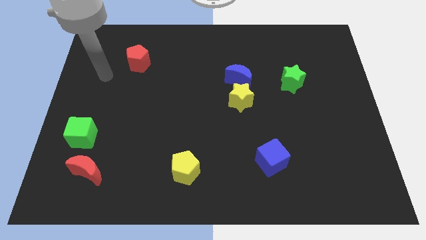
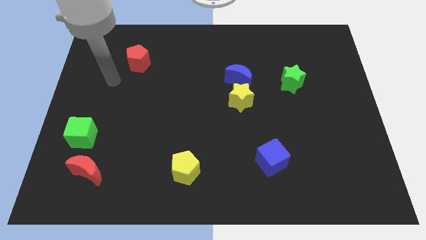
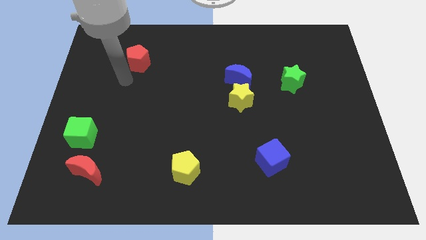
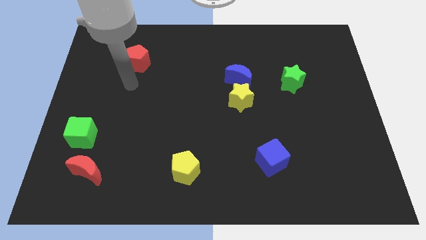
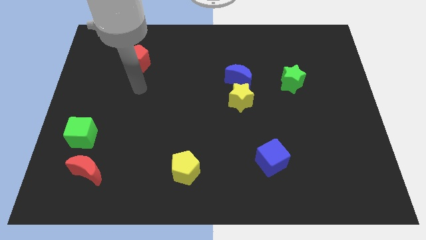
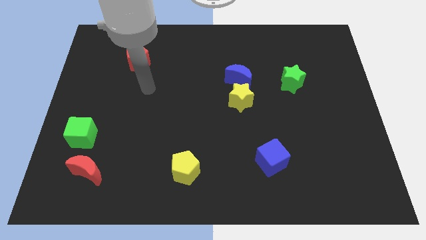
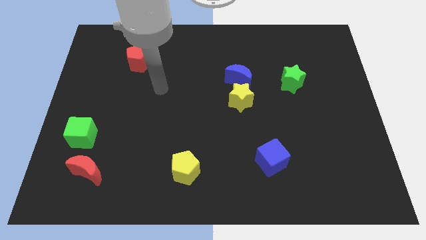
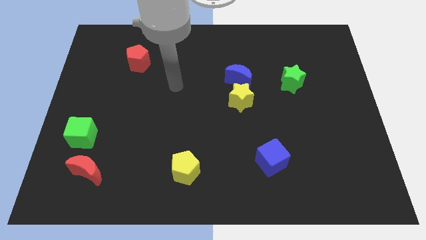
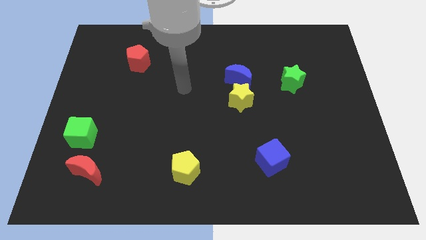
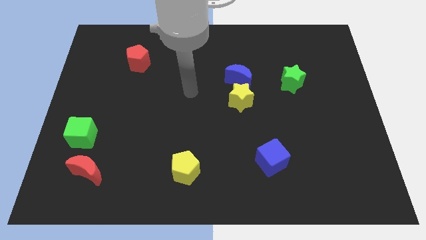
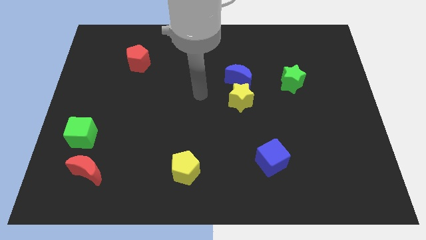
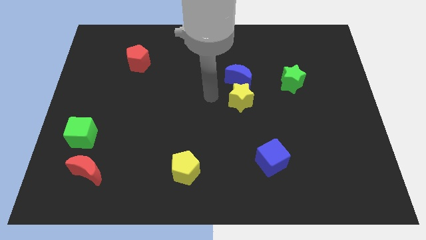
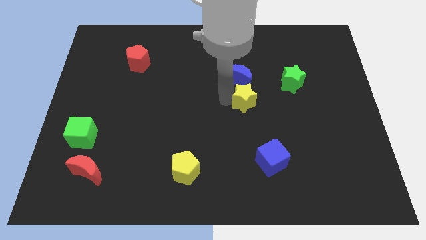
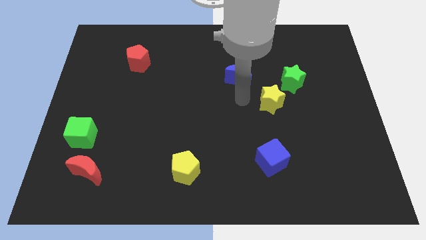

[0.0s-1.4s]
separate the blue moon from the yellow star

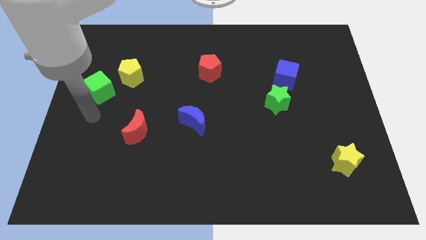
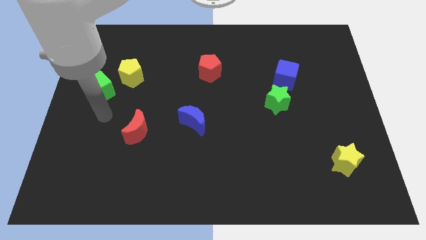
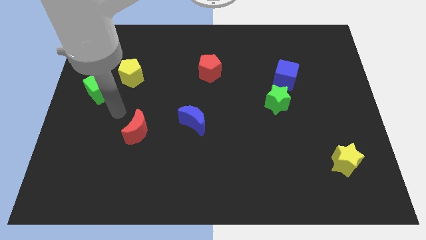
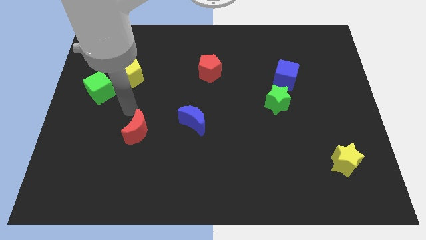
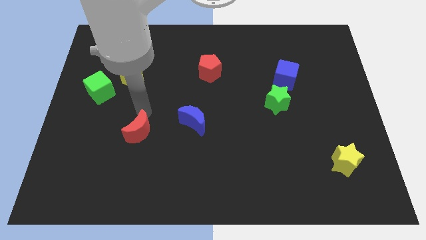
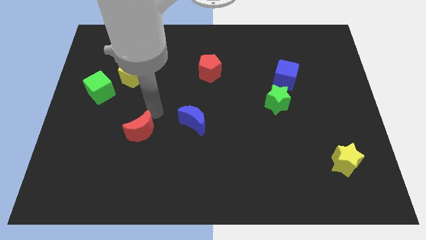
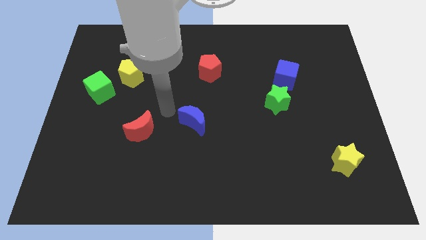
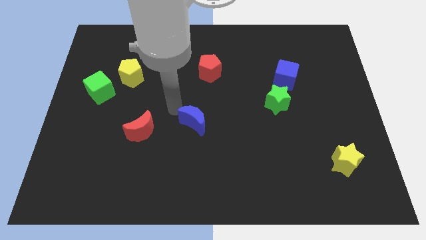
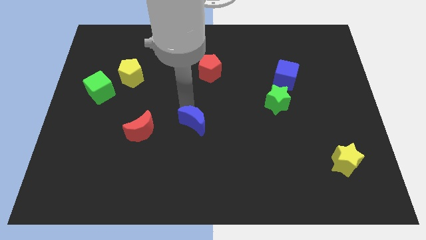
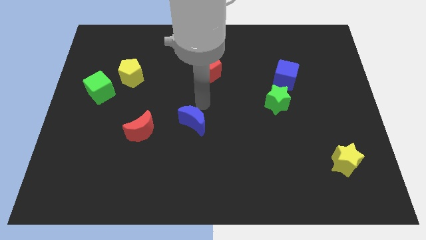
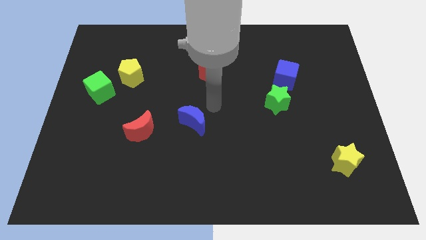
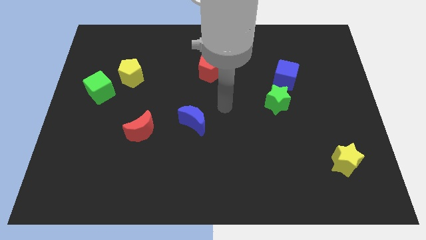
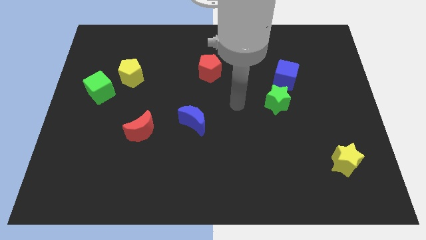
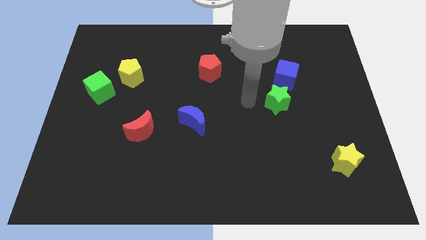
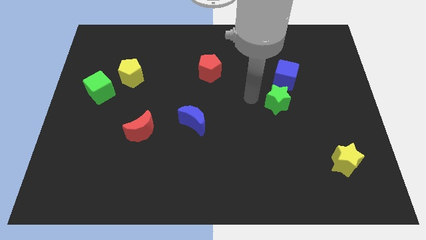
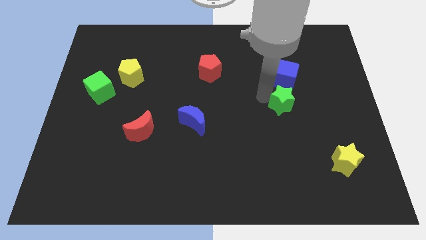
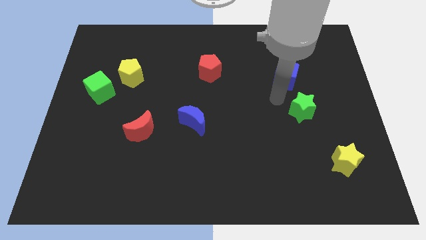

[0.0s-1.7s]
separate the blue cube from the green star

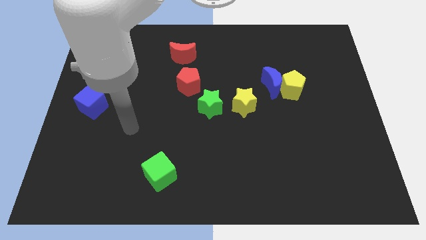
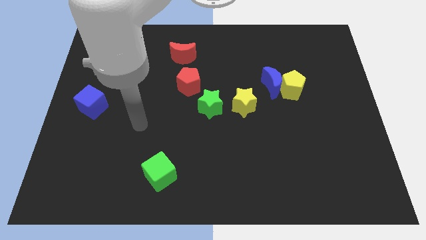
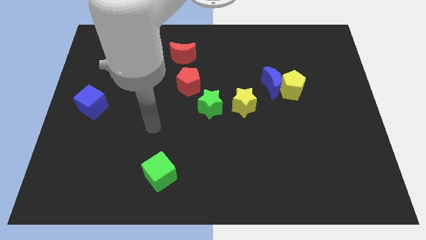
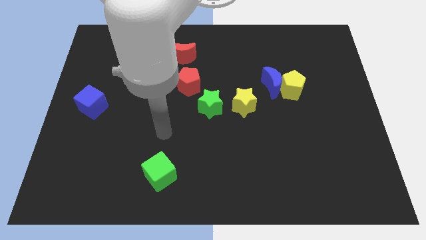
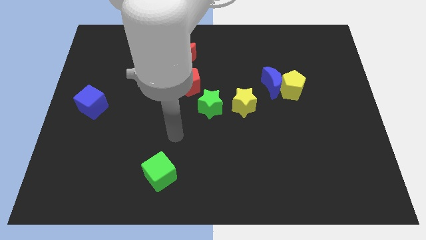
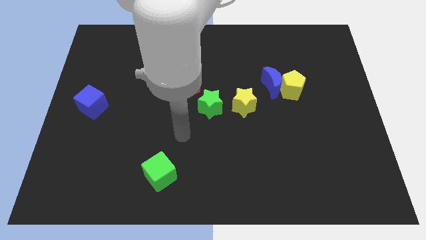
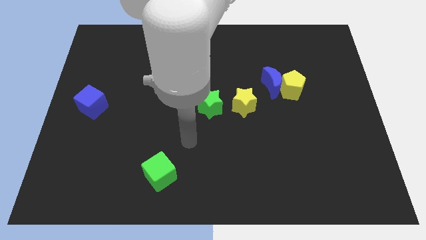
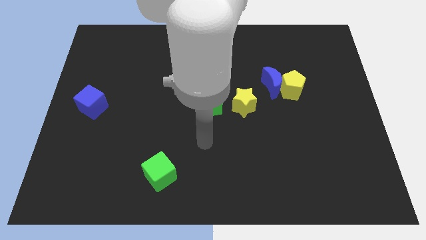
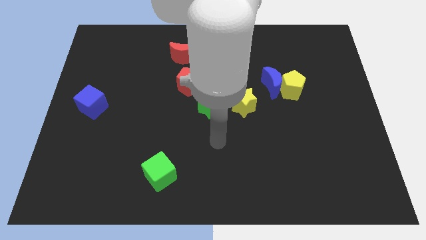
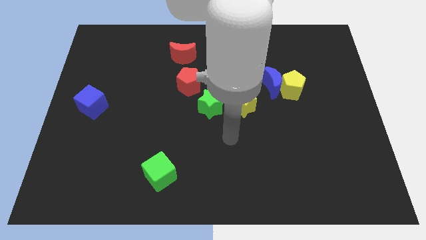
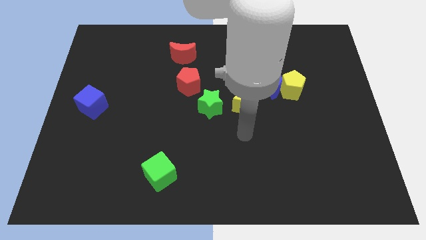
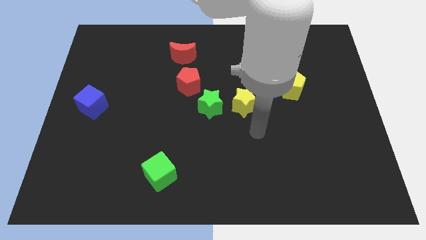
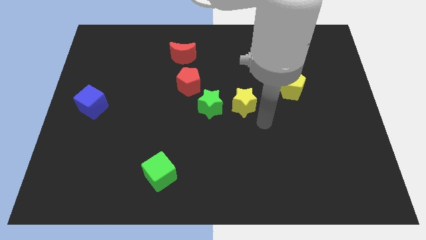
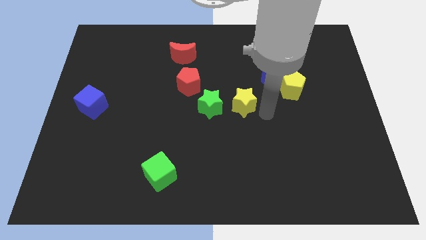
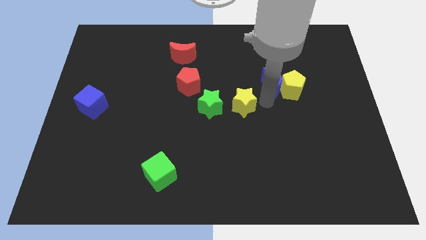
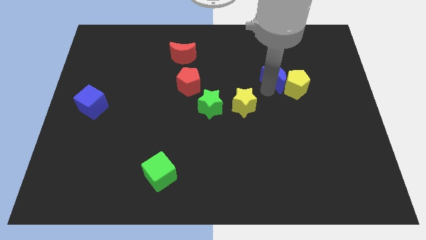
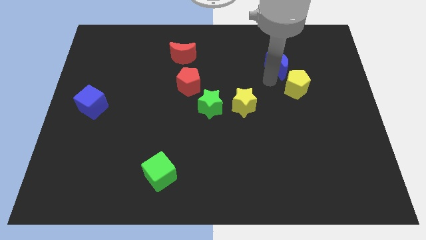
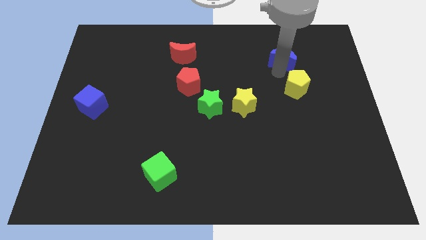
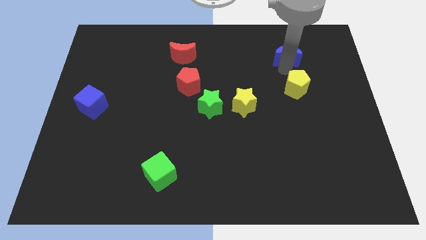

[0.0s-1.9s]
pull the yellow pentagon apart from the blue moon

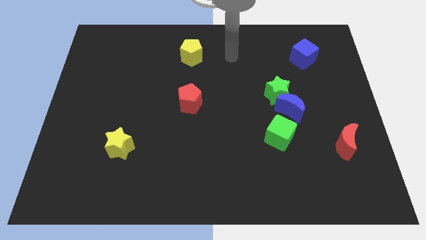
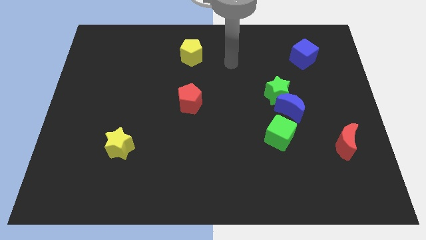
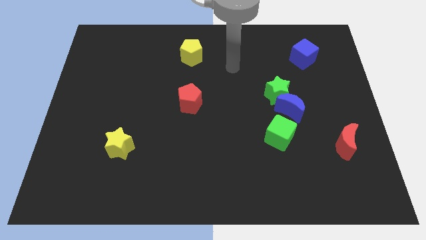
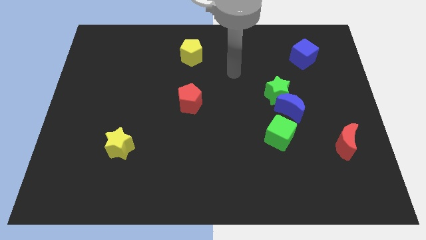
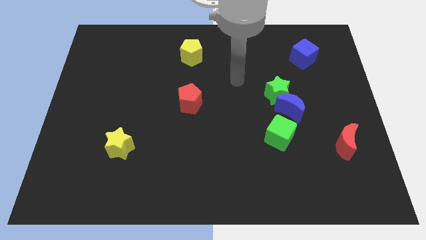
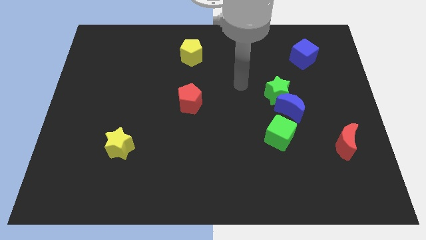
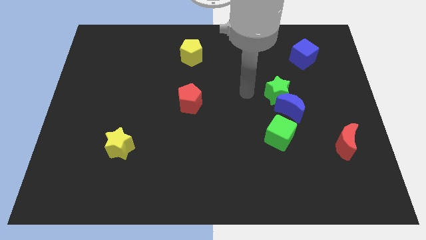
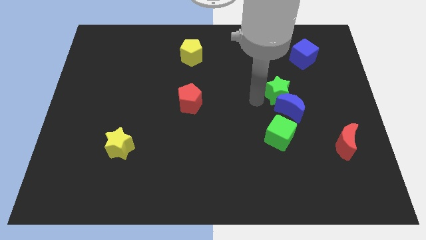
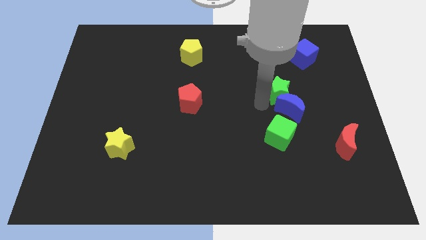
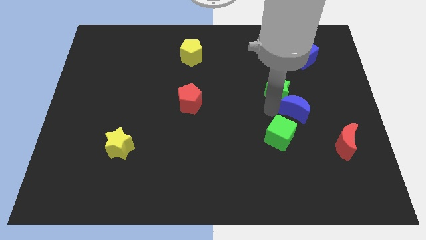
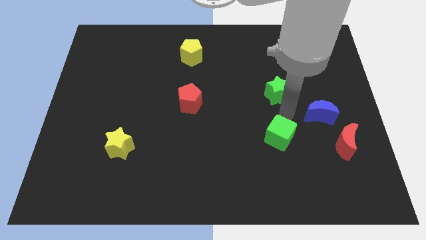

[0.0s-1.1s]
move the green star away from the blue moon

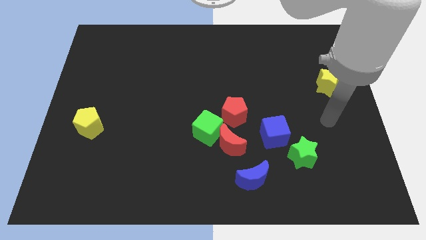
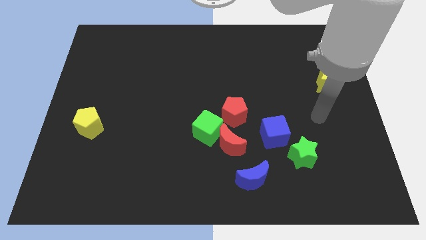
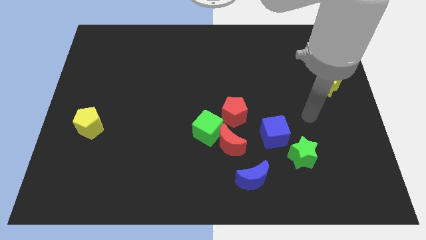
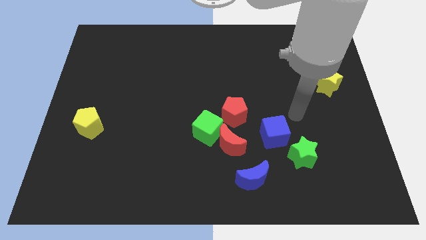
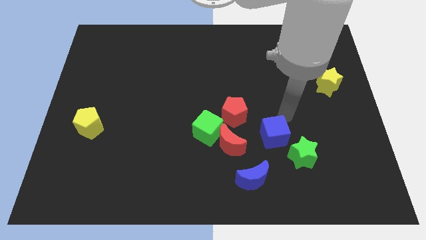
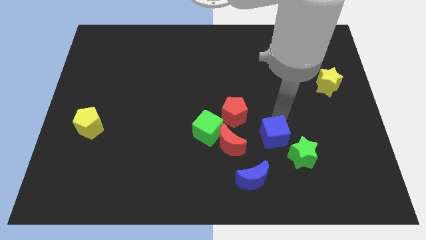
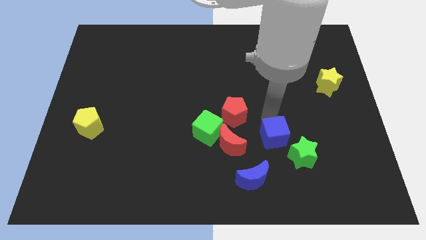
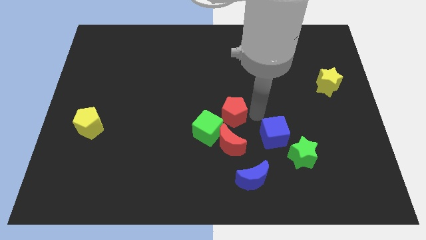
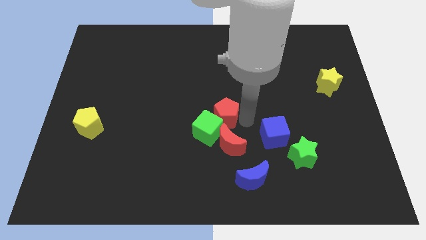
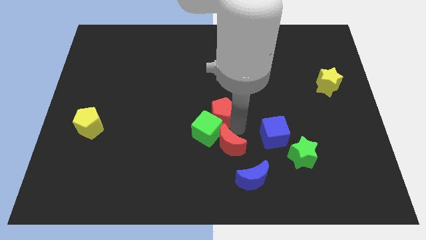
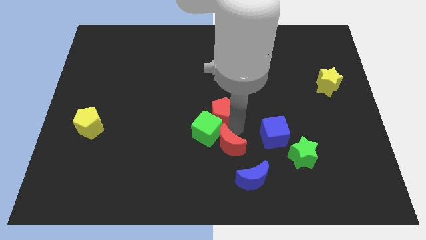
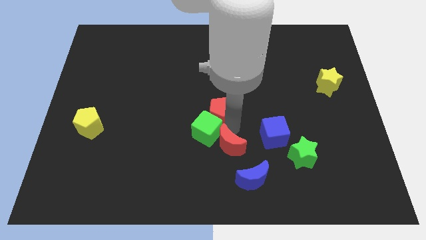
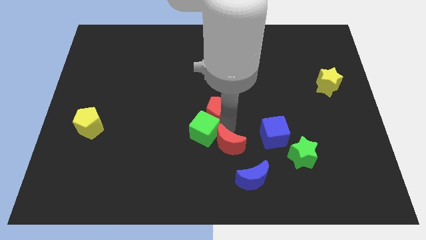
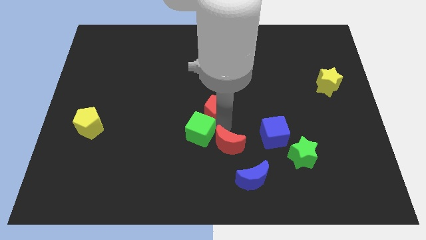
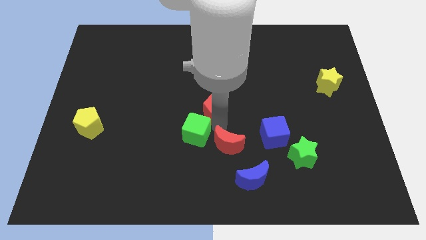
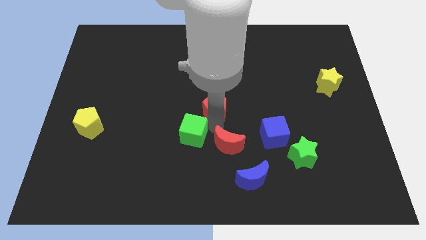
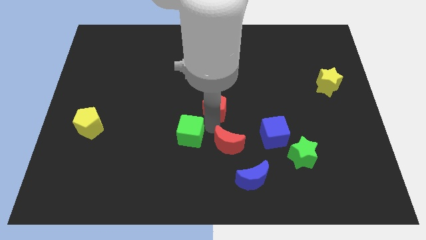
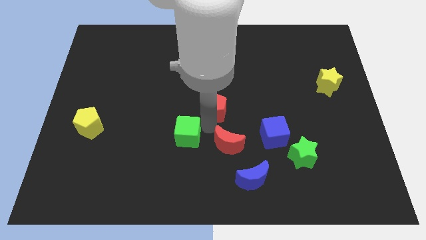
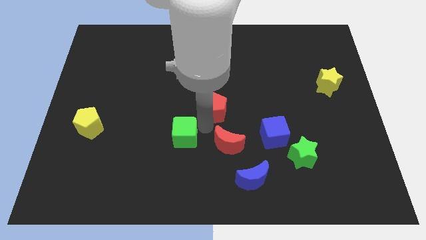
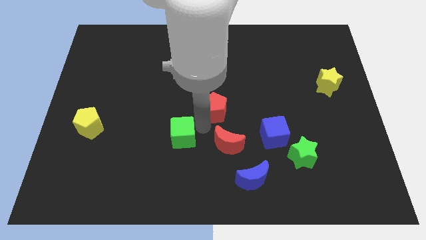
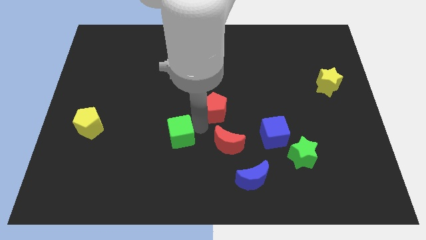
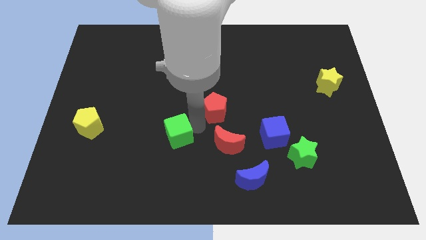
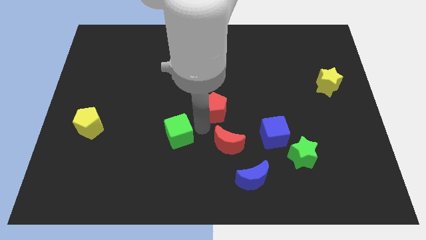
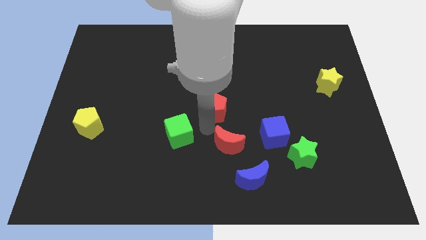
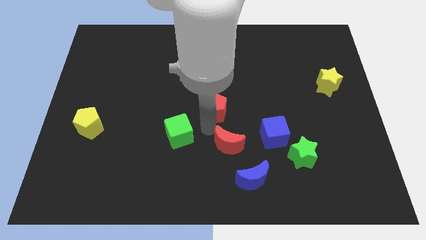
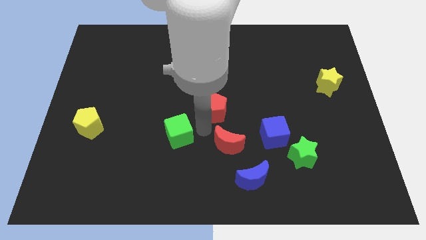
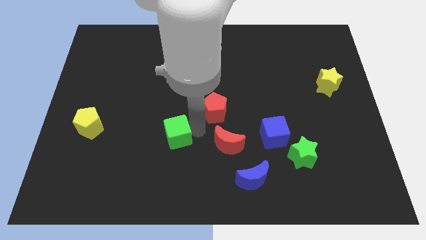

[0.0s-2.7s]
separate the green cube from the red moon and red pentagon

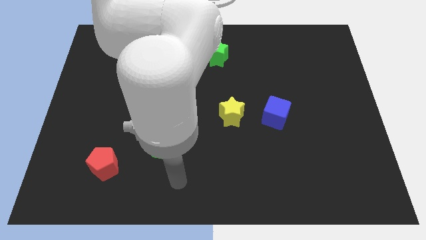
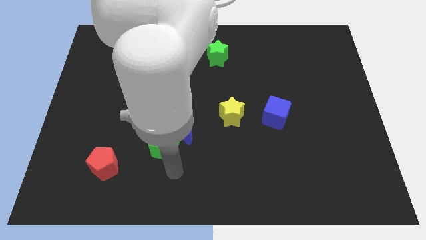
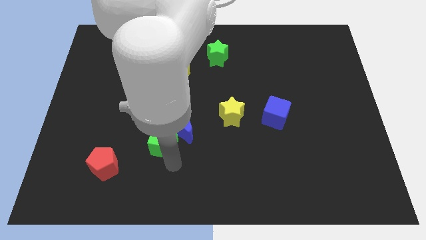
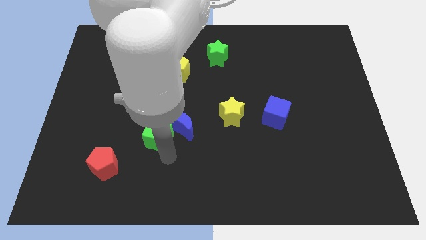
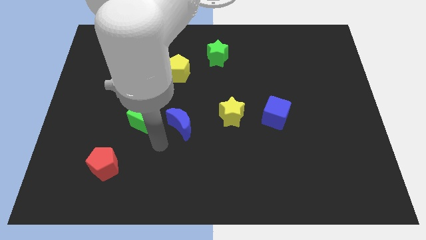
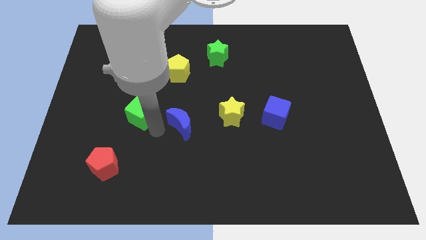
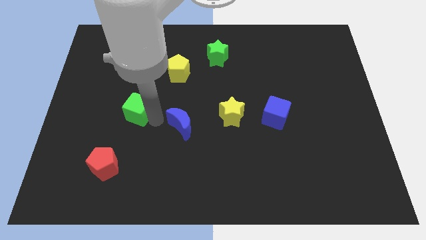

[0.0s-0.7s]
move the blue moon away from the green cube
